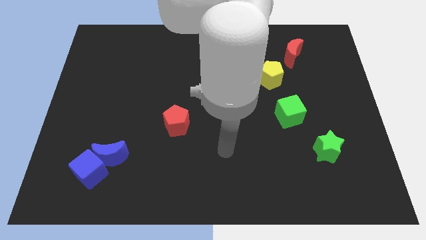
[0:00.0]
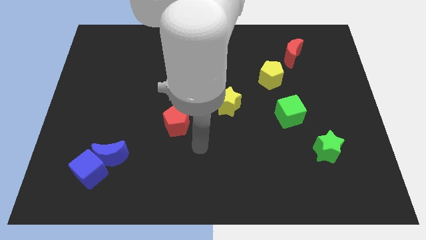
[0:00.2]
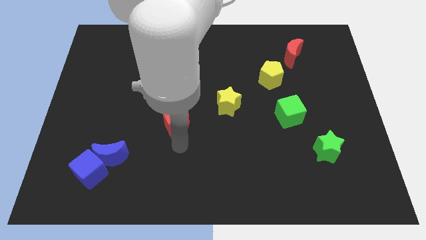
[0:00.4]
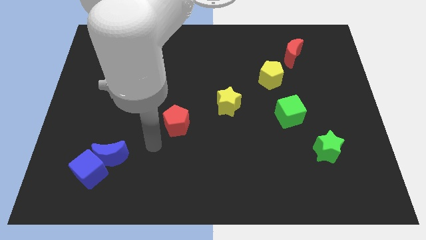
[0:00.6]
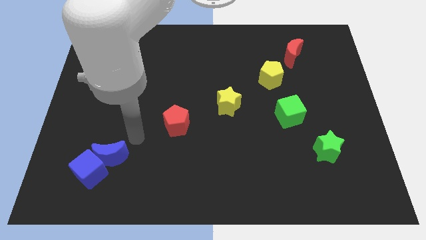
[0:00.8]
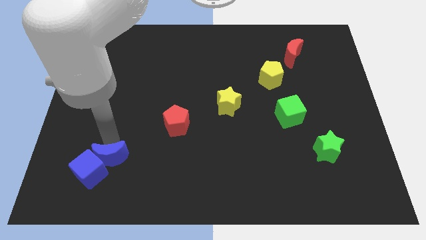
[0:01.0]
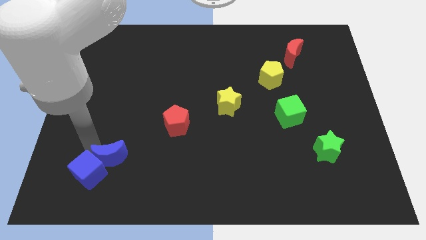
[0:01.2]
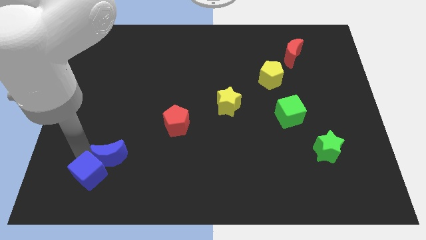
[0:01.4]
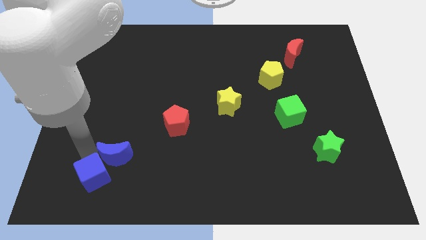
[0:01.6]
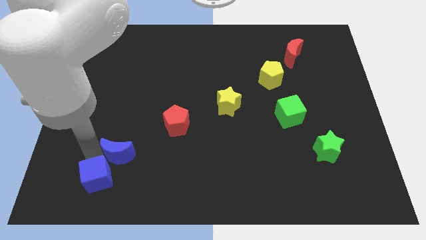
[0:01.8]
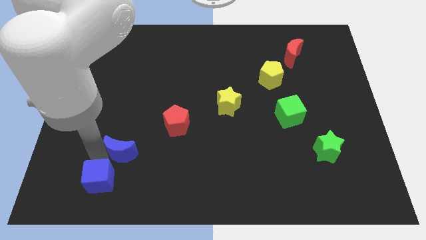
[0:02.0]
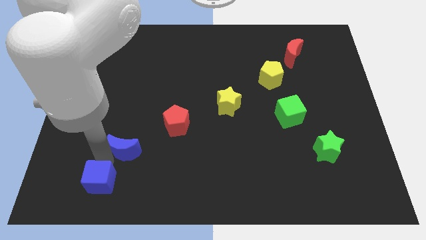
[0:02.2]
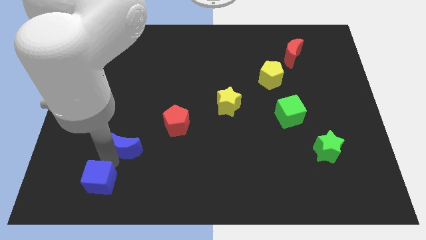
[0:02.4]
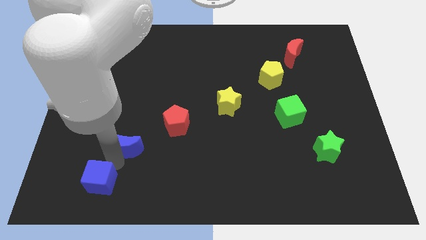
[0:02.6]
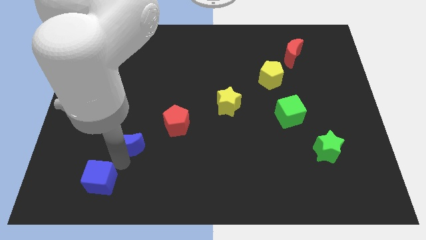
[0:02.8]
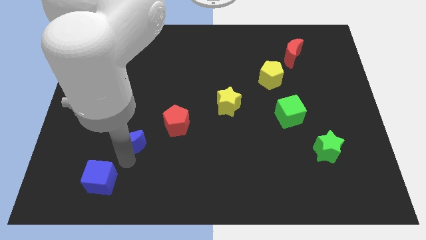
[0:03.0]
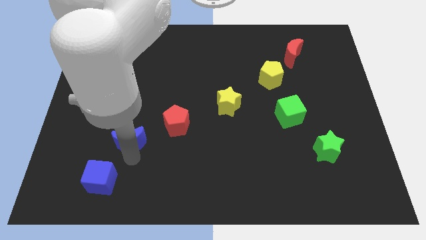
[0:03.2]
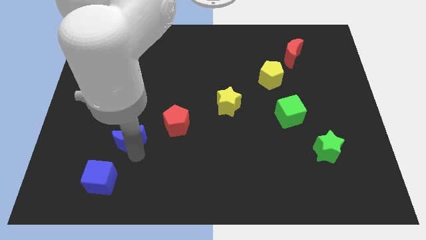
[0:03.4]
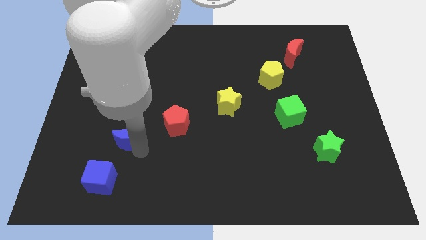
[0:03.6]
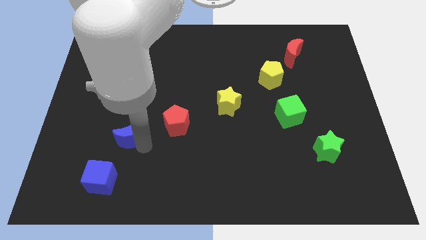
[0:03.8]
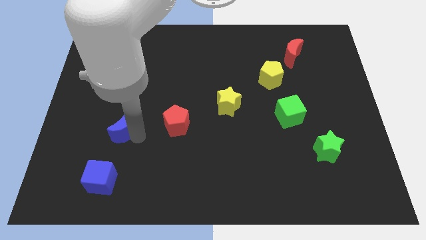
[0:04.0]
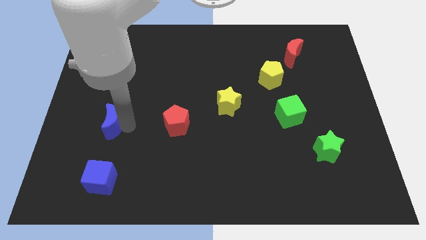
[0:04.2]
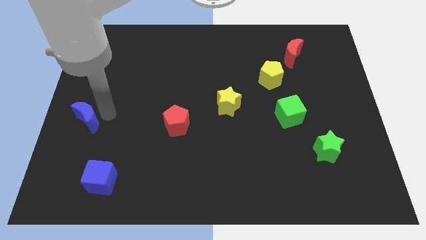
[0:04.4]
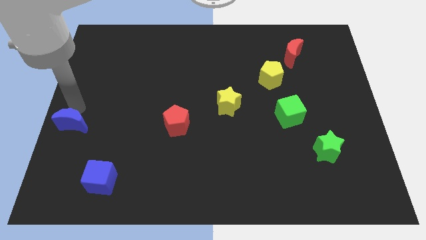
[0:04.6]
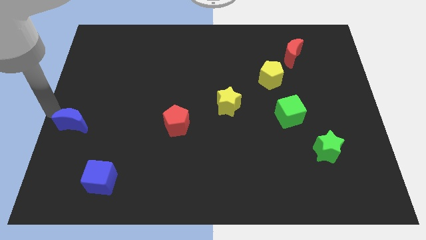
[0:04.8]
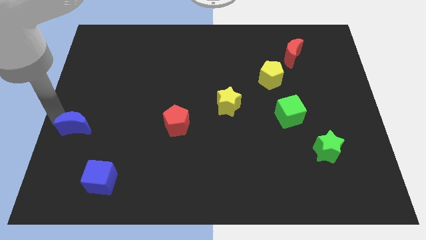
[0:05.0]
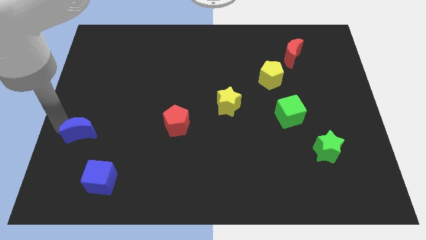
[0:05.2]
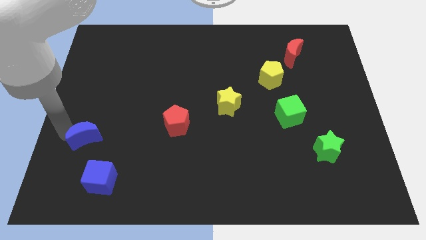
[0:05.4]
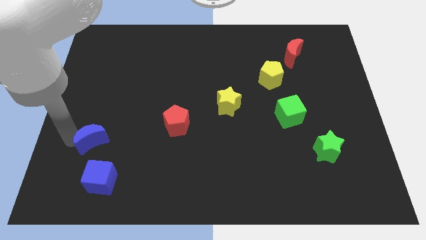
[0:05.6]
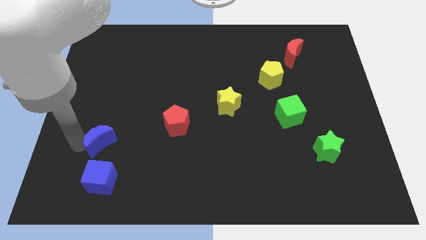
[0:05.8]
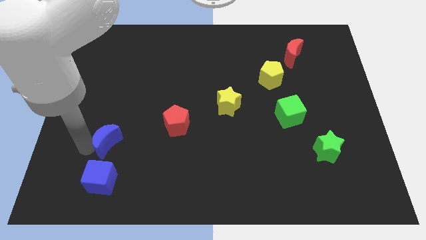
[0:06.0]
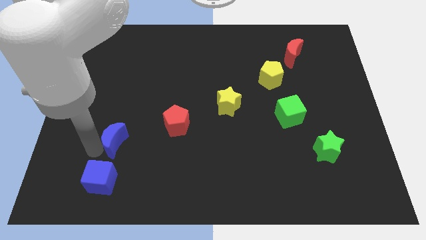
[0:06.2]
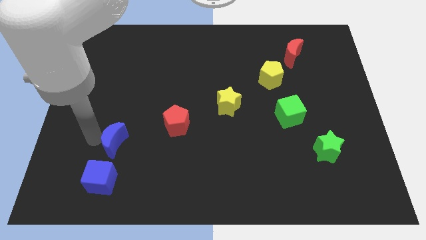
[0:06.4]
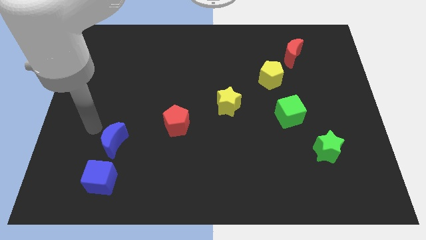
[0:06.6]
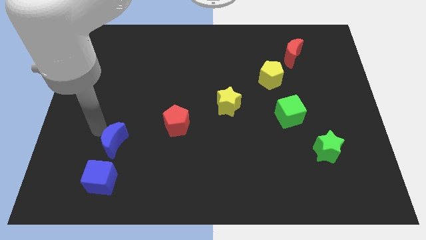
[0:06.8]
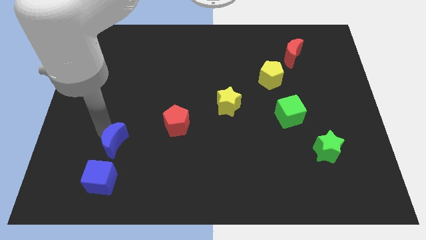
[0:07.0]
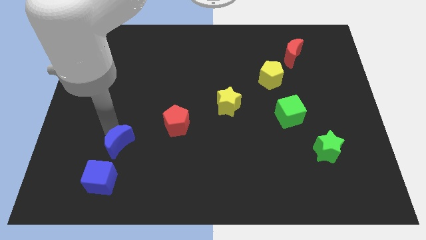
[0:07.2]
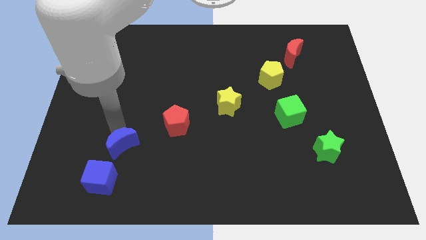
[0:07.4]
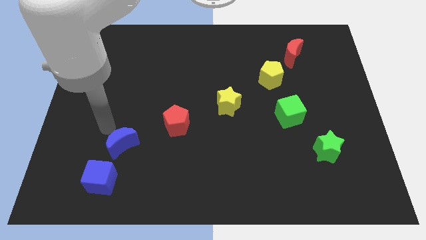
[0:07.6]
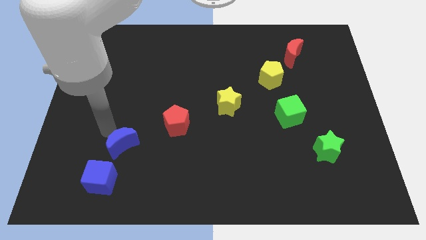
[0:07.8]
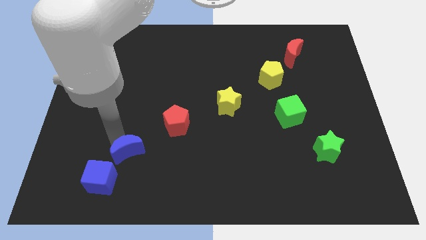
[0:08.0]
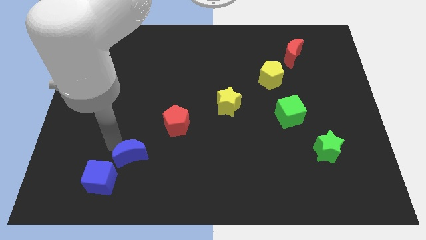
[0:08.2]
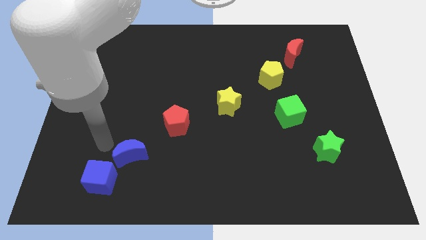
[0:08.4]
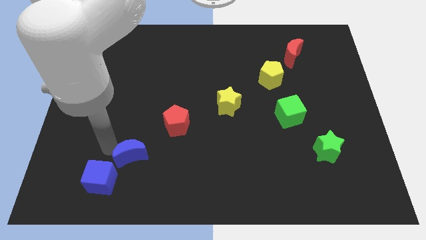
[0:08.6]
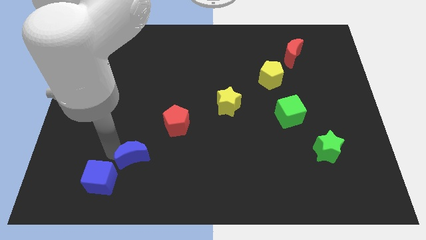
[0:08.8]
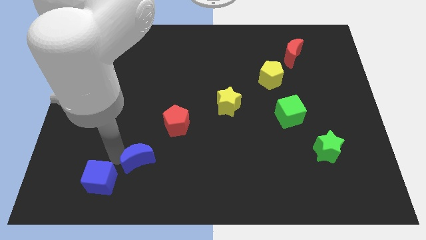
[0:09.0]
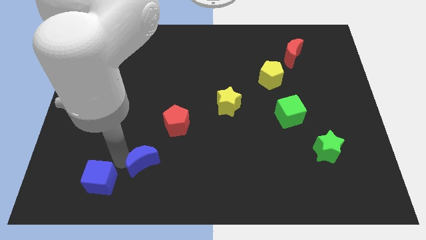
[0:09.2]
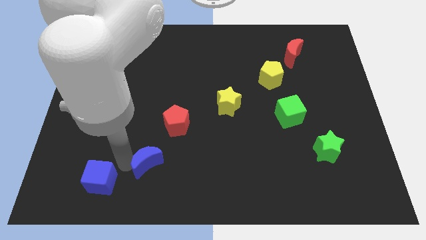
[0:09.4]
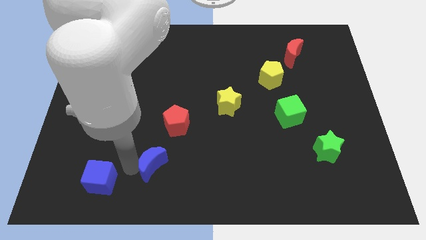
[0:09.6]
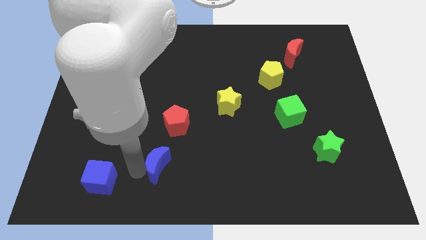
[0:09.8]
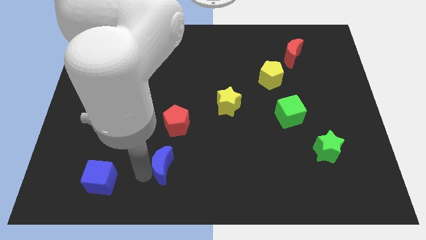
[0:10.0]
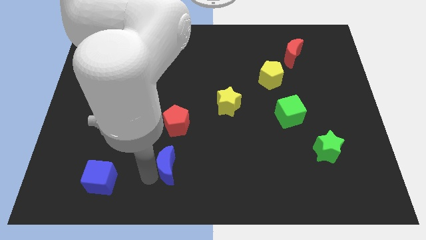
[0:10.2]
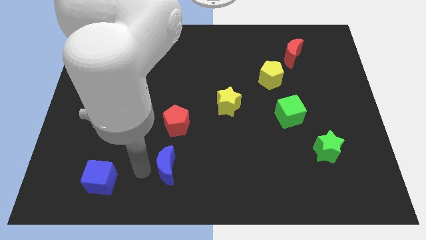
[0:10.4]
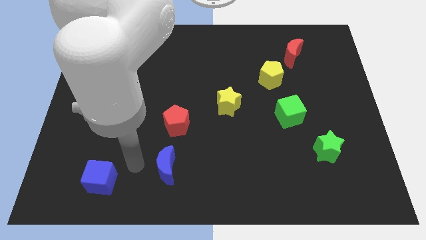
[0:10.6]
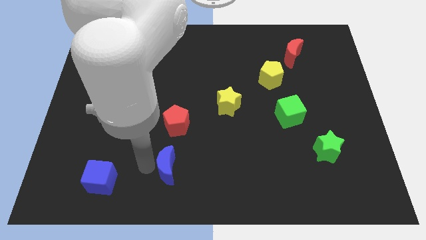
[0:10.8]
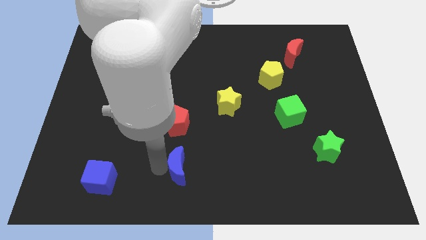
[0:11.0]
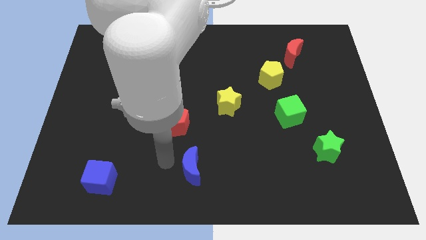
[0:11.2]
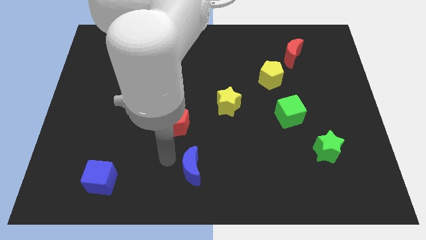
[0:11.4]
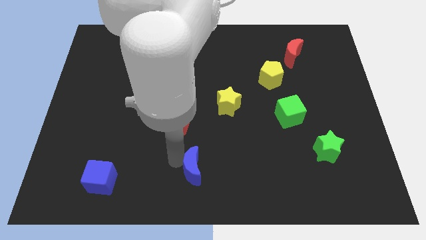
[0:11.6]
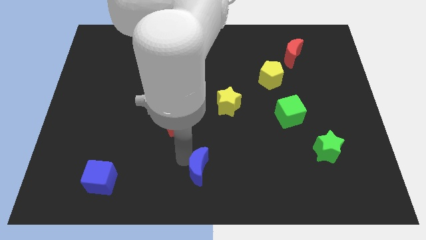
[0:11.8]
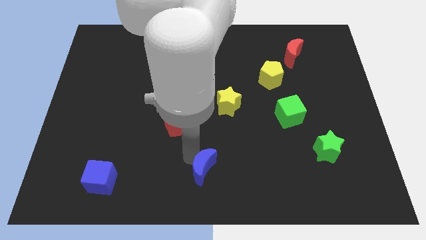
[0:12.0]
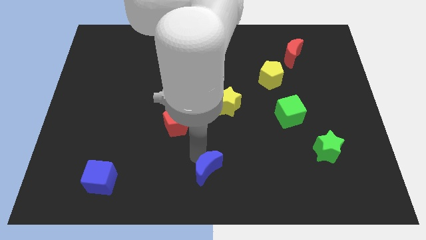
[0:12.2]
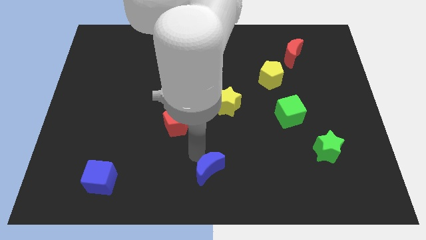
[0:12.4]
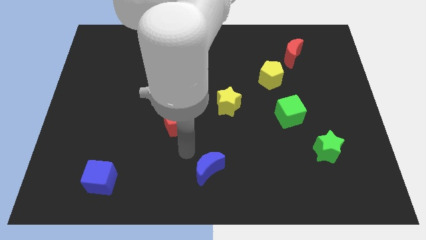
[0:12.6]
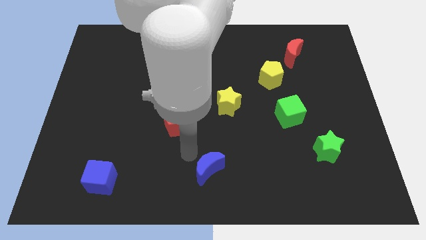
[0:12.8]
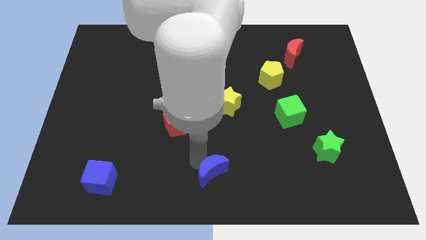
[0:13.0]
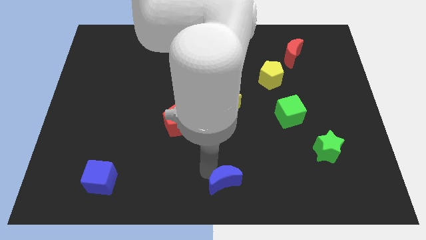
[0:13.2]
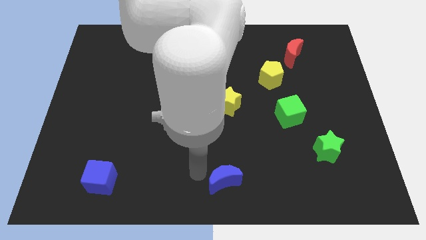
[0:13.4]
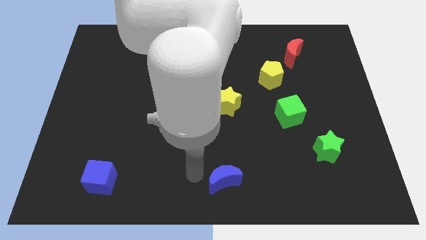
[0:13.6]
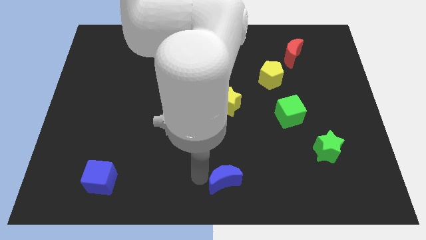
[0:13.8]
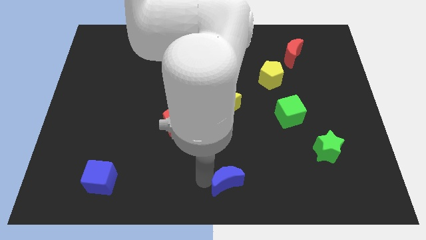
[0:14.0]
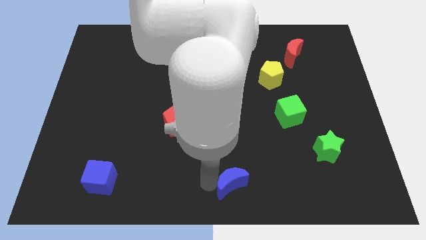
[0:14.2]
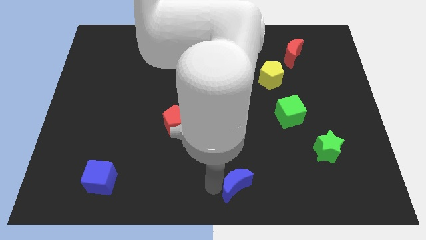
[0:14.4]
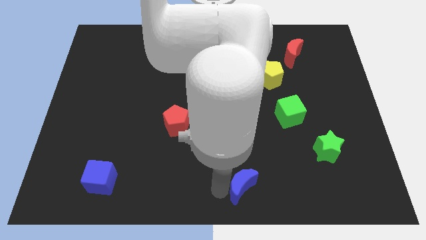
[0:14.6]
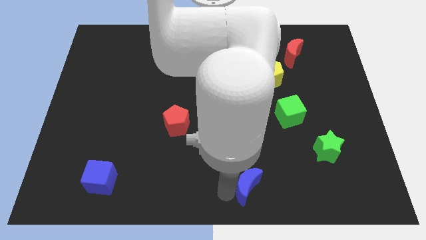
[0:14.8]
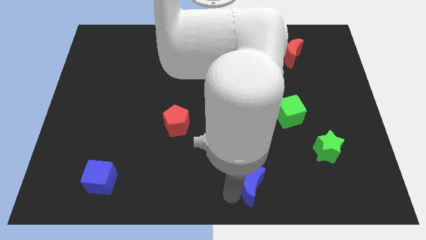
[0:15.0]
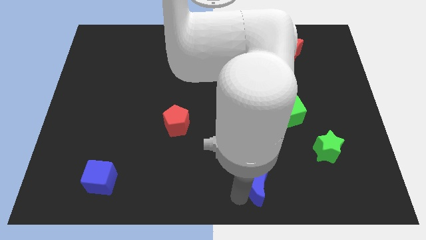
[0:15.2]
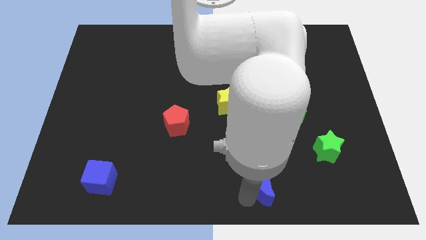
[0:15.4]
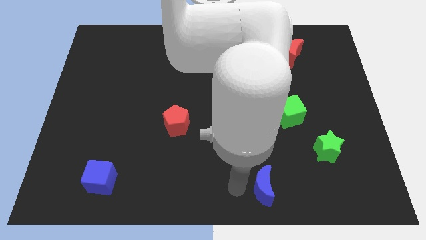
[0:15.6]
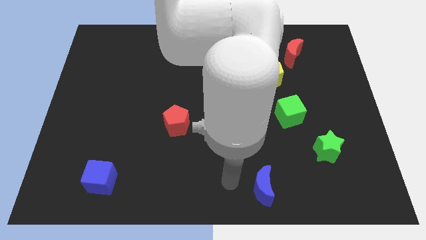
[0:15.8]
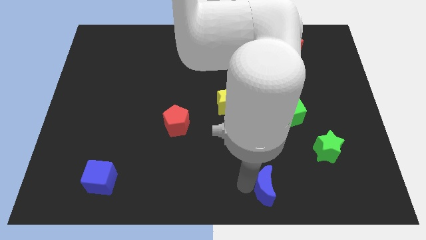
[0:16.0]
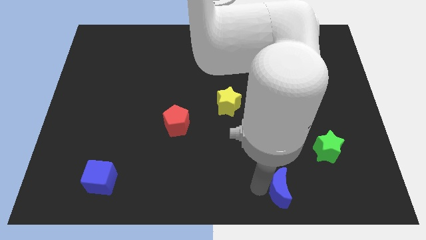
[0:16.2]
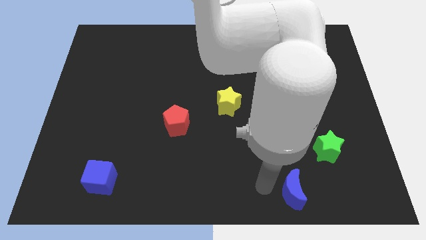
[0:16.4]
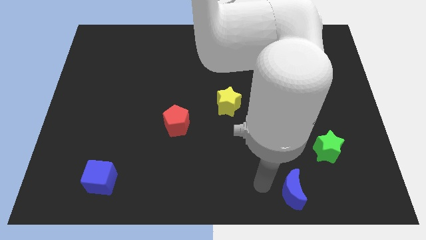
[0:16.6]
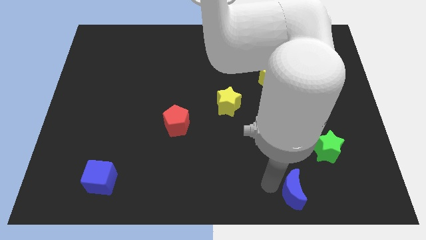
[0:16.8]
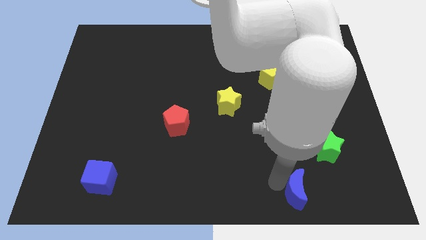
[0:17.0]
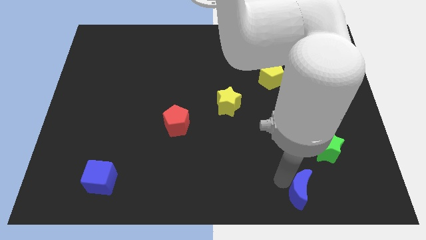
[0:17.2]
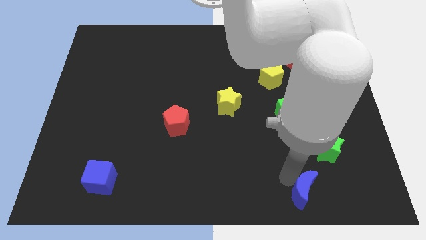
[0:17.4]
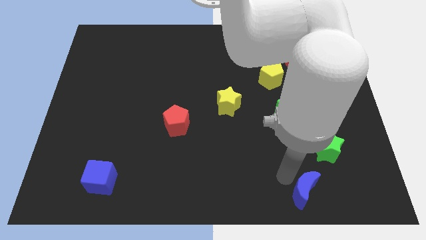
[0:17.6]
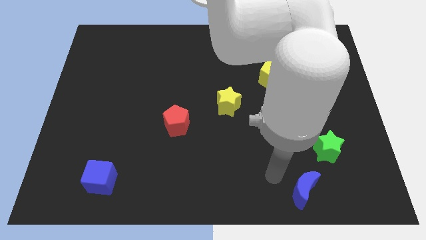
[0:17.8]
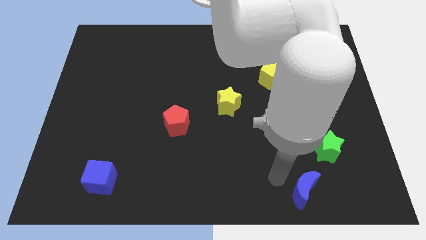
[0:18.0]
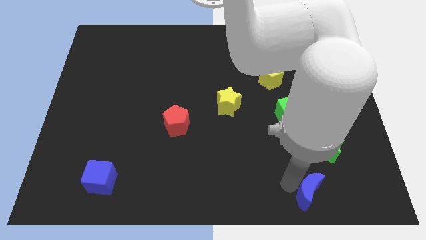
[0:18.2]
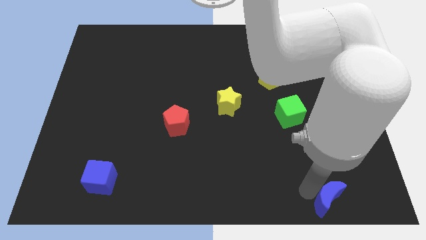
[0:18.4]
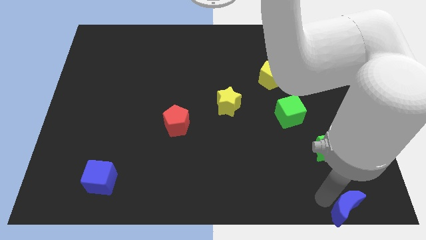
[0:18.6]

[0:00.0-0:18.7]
move the blue moon to the bottom right of the board
